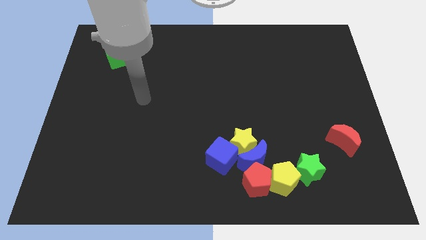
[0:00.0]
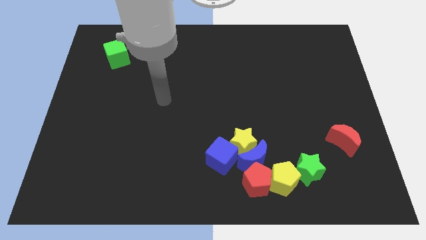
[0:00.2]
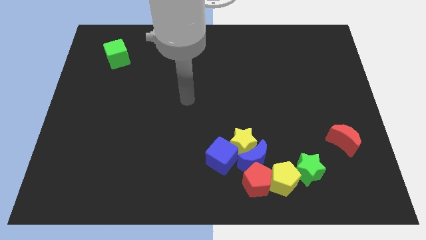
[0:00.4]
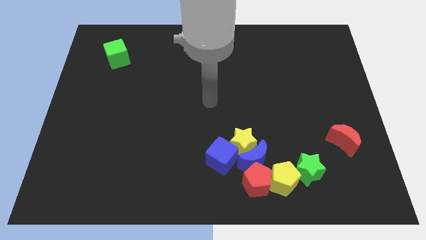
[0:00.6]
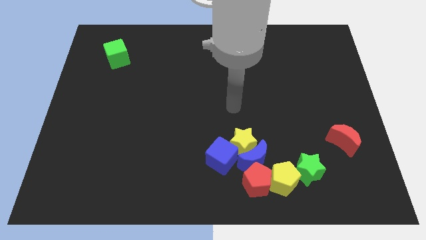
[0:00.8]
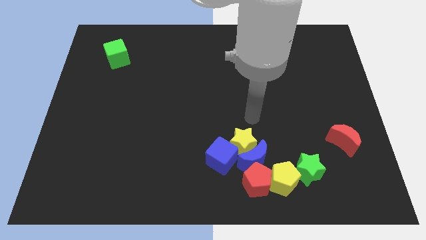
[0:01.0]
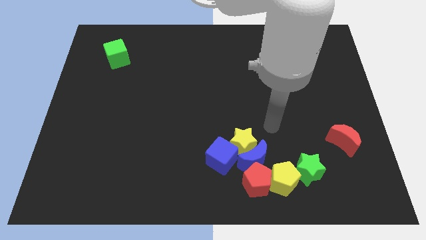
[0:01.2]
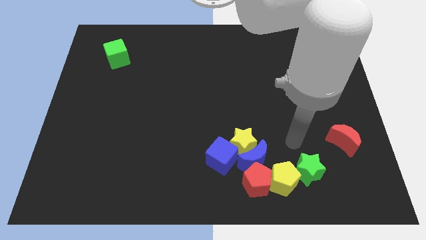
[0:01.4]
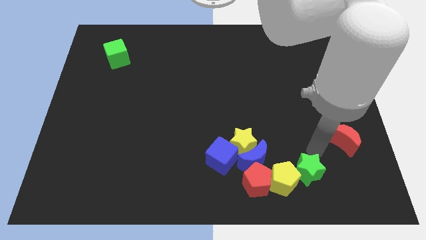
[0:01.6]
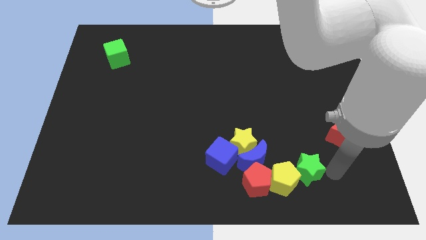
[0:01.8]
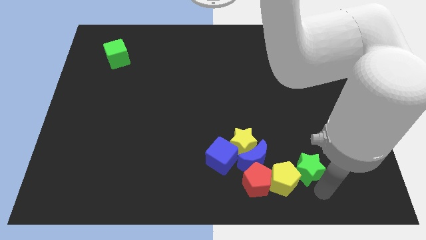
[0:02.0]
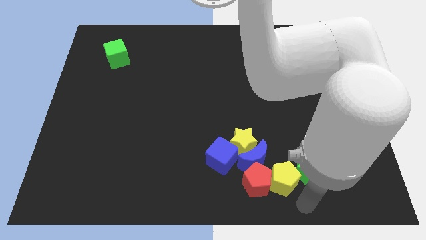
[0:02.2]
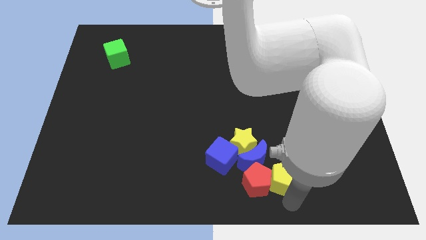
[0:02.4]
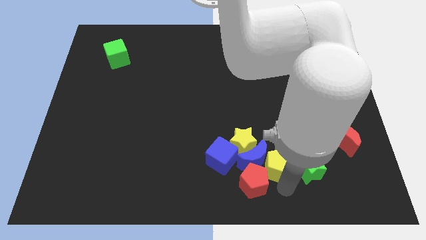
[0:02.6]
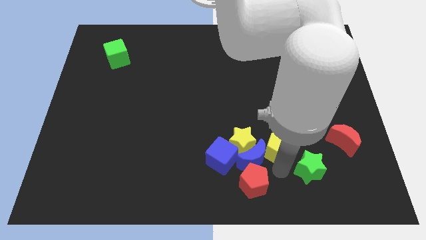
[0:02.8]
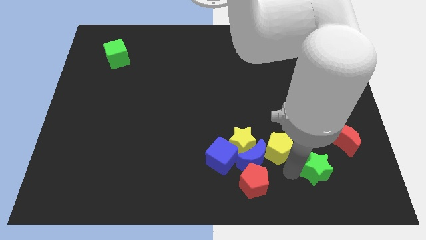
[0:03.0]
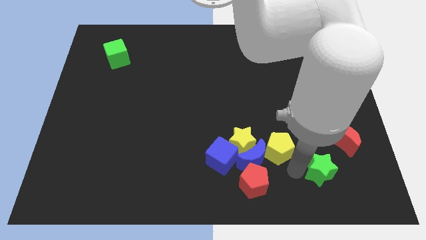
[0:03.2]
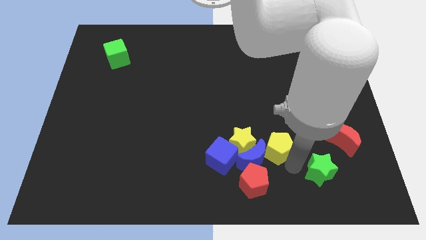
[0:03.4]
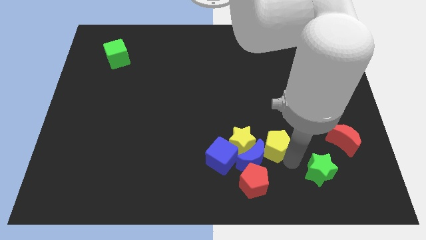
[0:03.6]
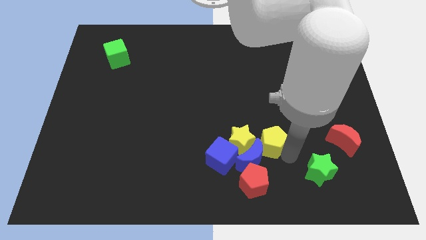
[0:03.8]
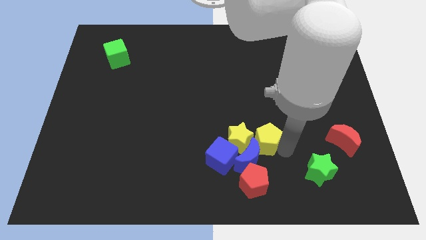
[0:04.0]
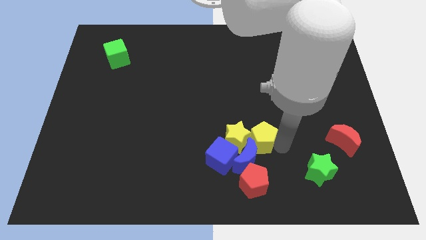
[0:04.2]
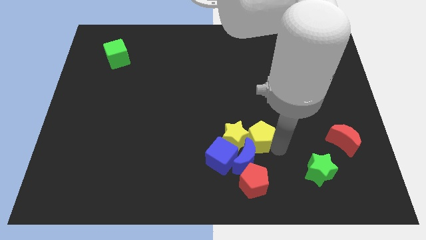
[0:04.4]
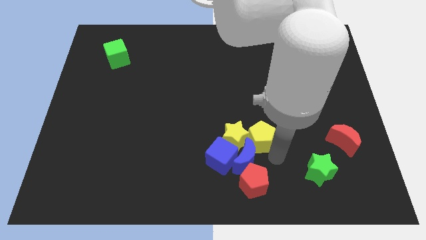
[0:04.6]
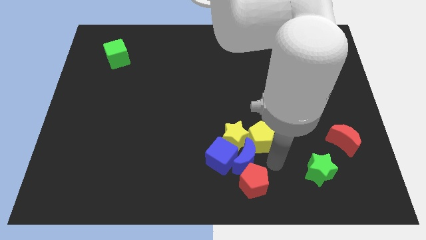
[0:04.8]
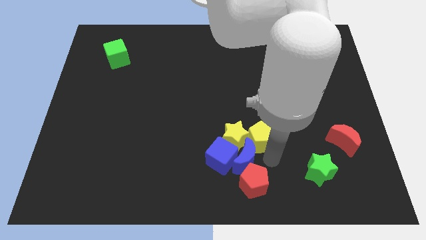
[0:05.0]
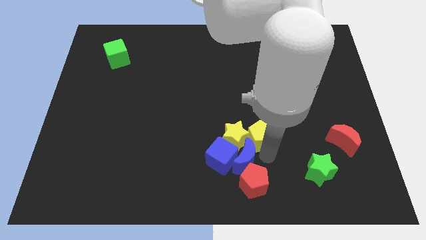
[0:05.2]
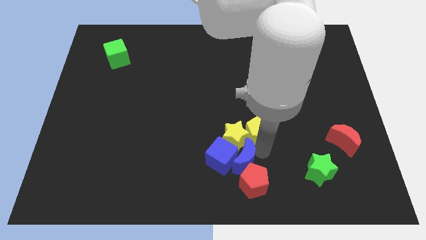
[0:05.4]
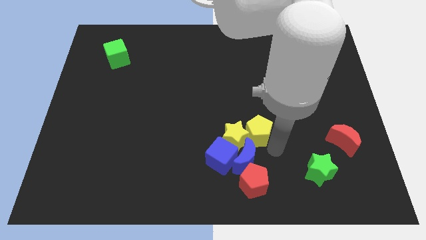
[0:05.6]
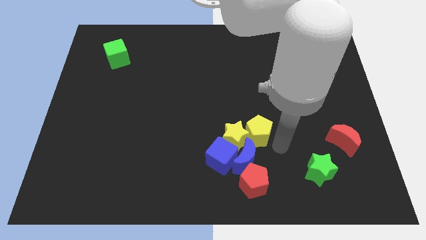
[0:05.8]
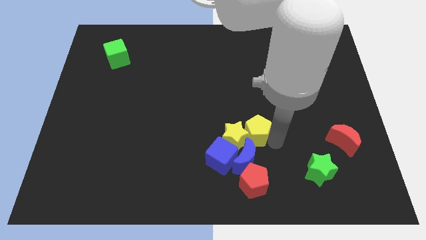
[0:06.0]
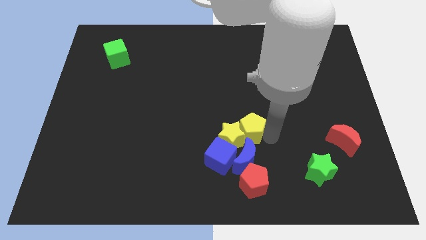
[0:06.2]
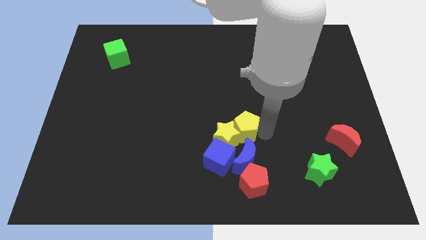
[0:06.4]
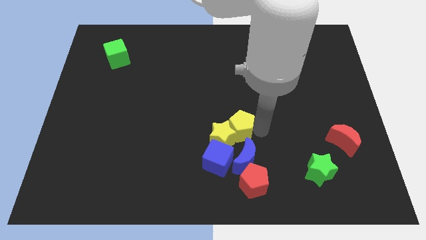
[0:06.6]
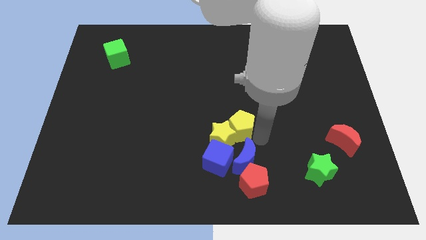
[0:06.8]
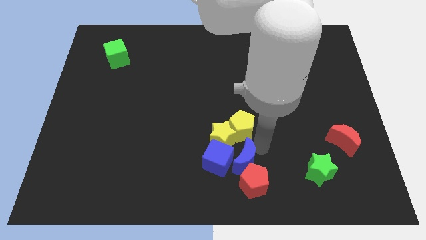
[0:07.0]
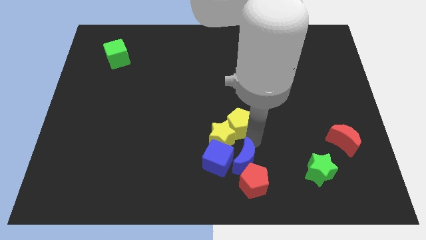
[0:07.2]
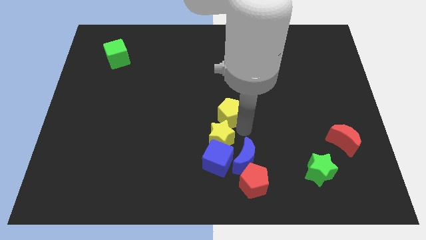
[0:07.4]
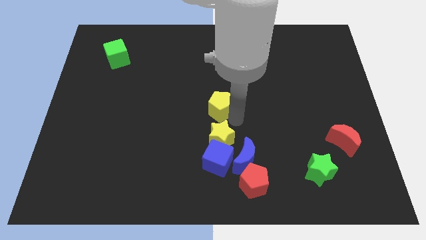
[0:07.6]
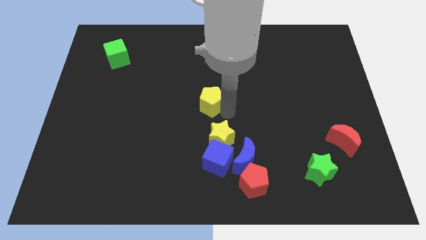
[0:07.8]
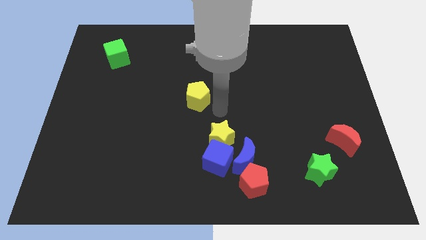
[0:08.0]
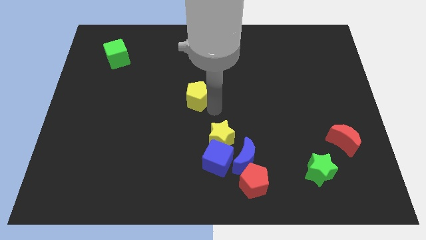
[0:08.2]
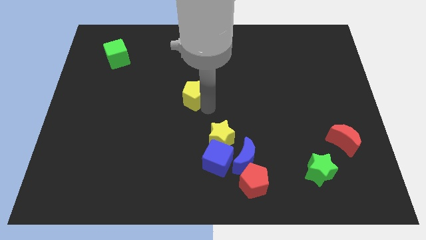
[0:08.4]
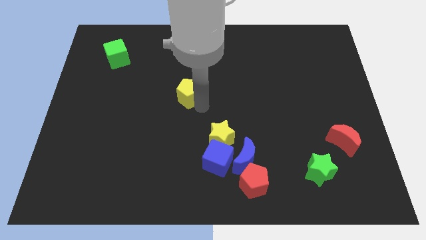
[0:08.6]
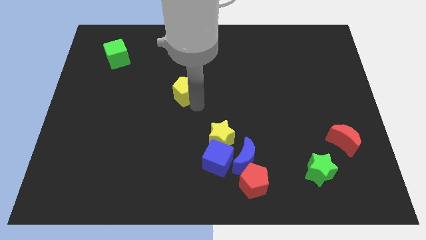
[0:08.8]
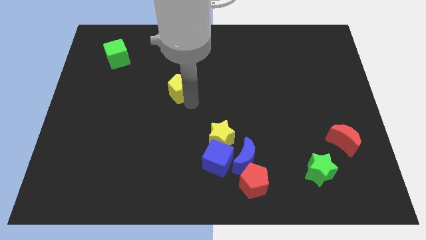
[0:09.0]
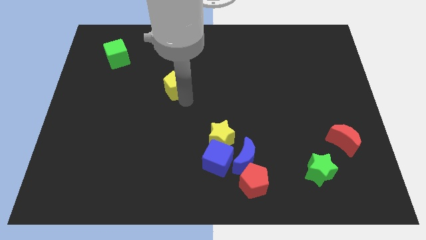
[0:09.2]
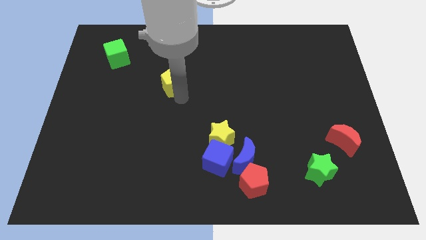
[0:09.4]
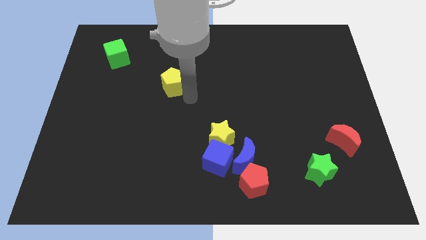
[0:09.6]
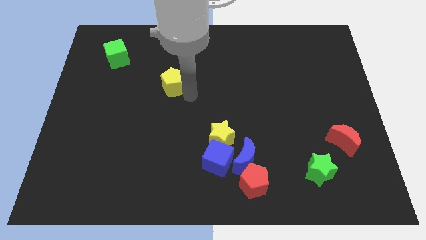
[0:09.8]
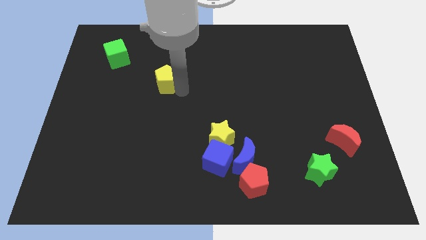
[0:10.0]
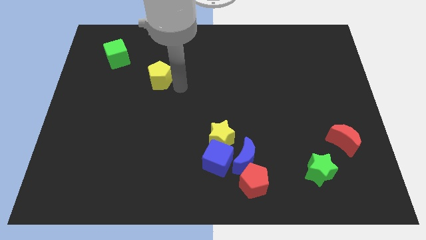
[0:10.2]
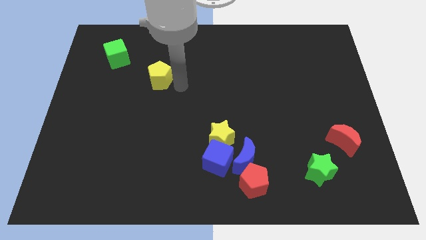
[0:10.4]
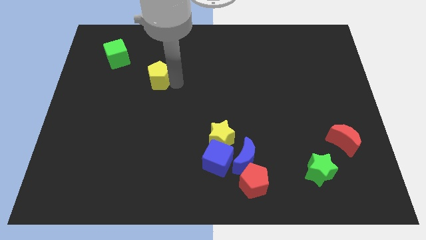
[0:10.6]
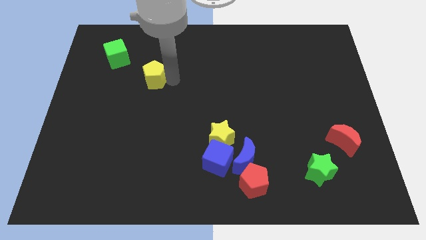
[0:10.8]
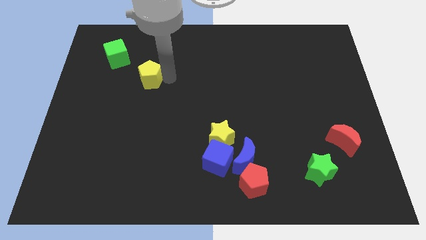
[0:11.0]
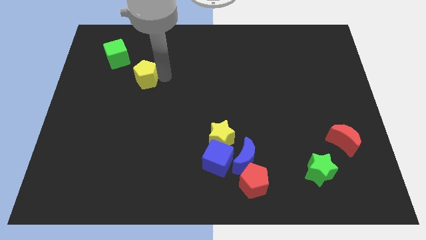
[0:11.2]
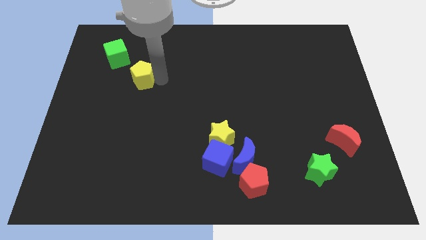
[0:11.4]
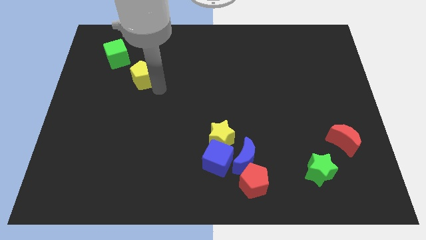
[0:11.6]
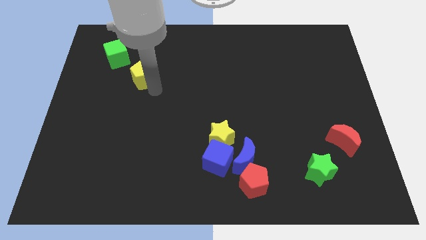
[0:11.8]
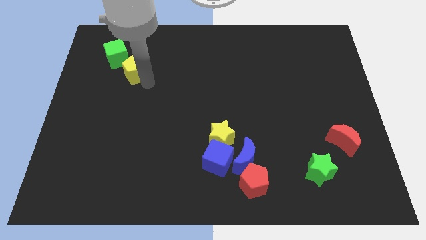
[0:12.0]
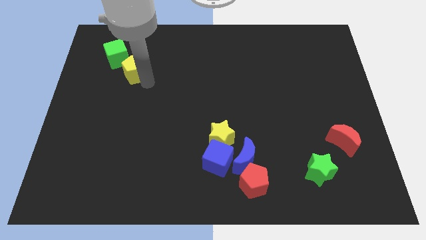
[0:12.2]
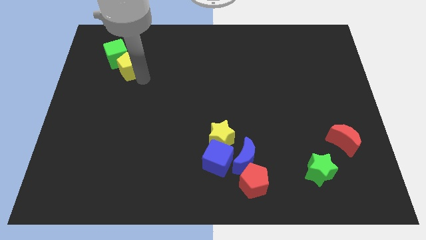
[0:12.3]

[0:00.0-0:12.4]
put the yellow pentagon to the green cube

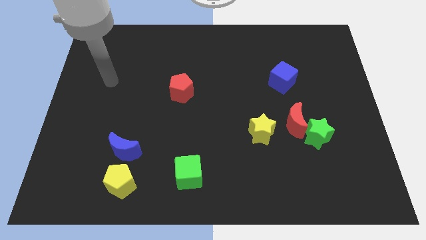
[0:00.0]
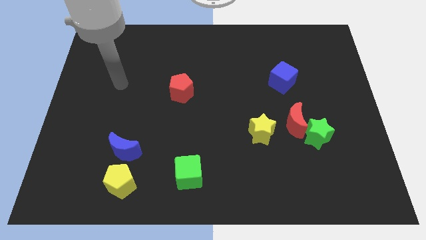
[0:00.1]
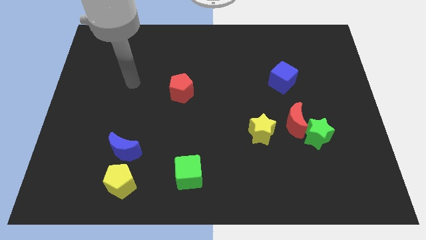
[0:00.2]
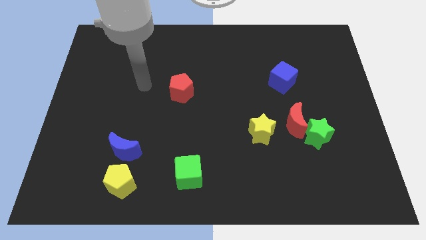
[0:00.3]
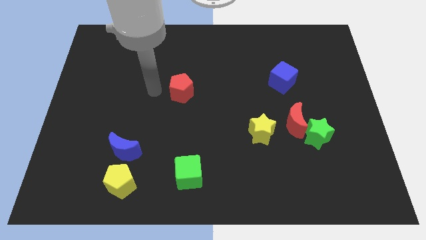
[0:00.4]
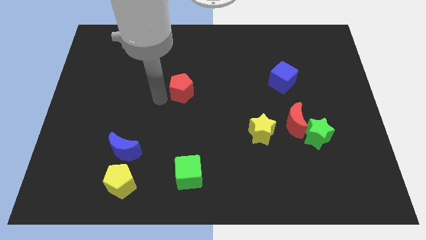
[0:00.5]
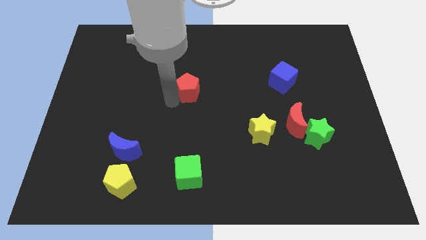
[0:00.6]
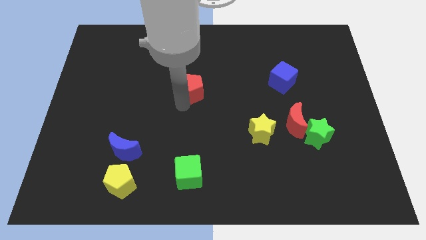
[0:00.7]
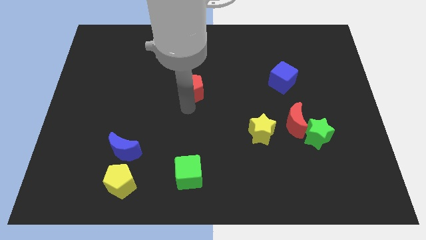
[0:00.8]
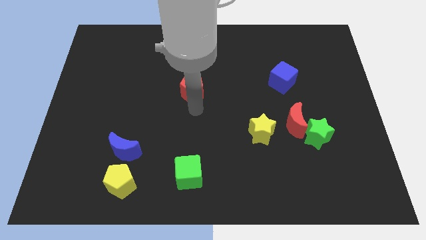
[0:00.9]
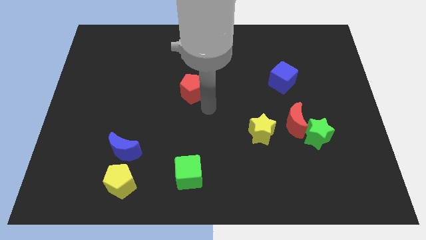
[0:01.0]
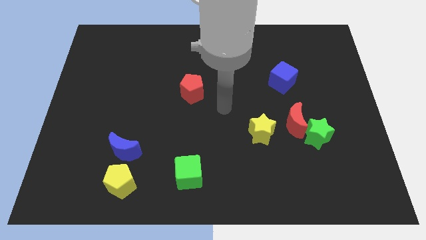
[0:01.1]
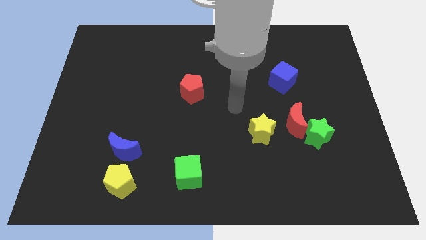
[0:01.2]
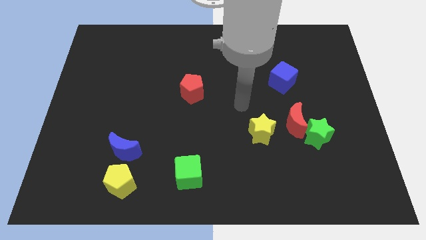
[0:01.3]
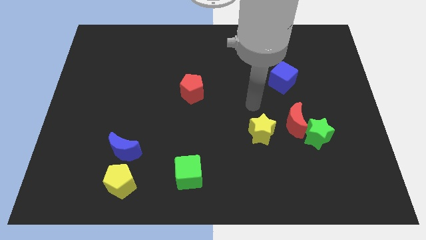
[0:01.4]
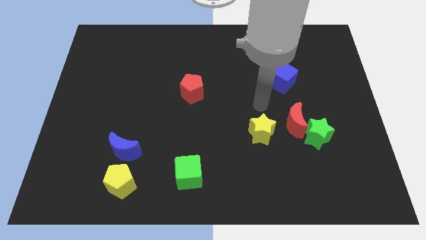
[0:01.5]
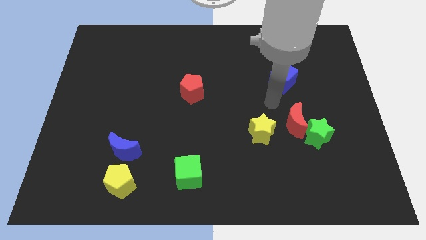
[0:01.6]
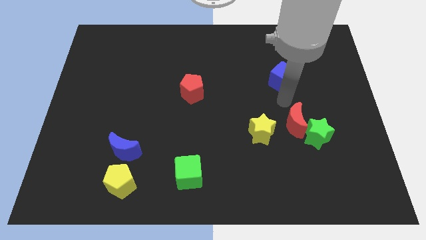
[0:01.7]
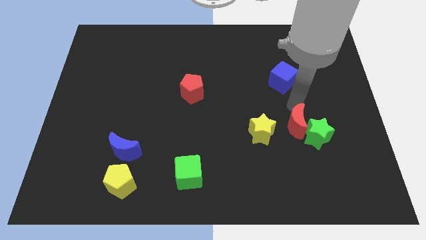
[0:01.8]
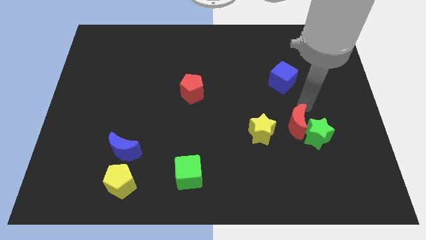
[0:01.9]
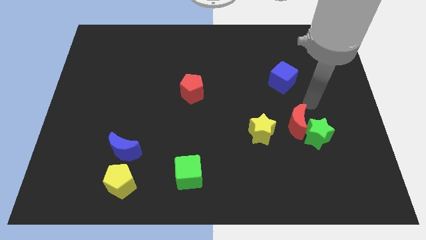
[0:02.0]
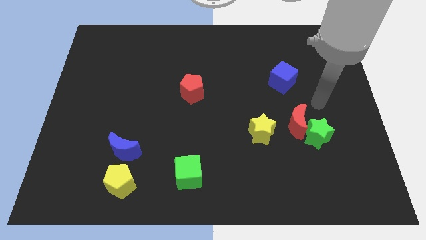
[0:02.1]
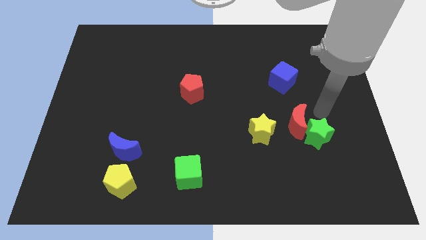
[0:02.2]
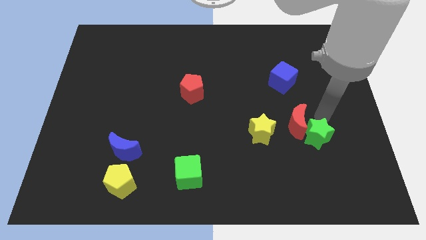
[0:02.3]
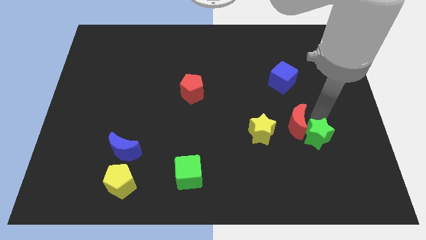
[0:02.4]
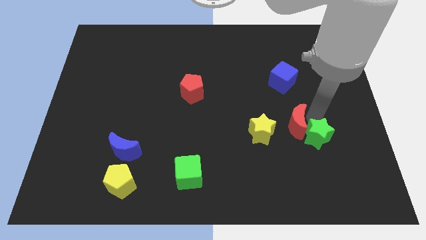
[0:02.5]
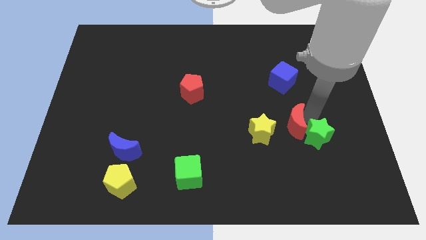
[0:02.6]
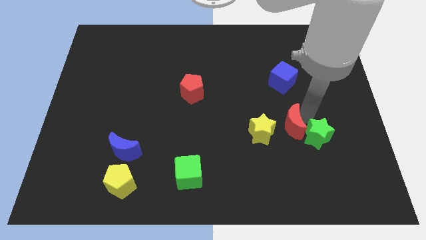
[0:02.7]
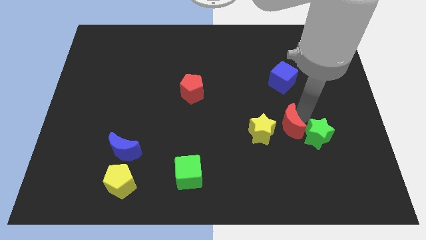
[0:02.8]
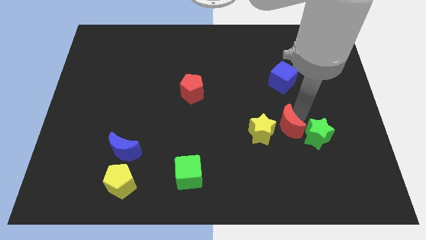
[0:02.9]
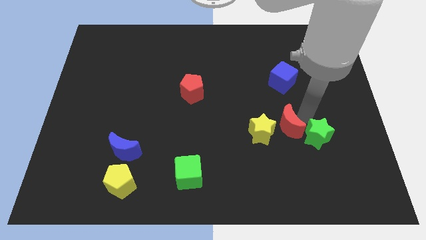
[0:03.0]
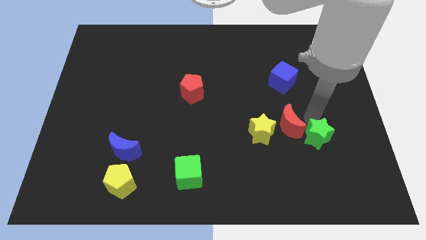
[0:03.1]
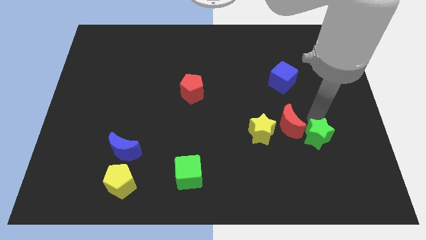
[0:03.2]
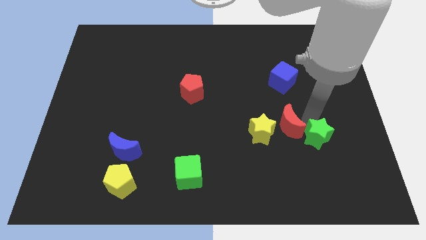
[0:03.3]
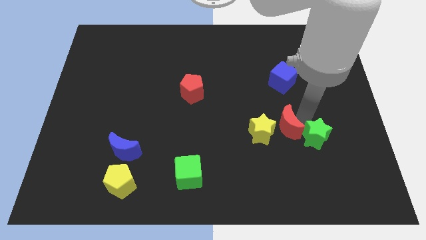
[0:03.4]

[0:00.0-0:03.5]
put the red moon next to the yellow star
